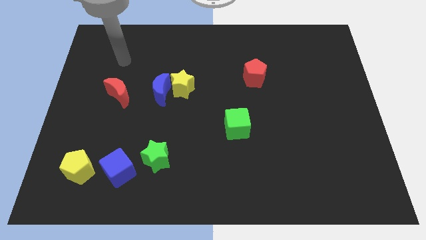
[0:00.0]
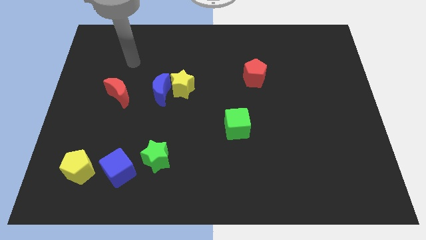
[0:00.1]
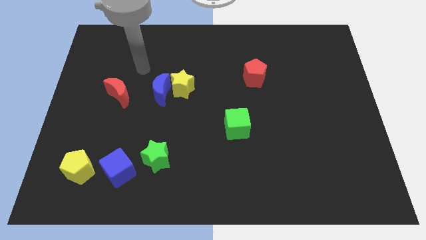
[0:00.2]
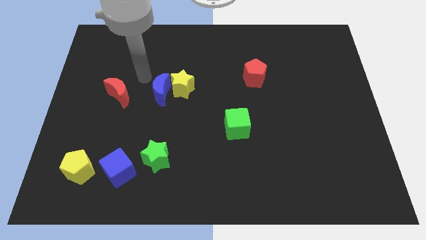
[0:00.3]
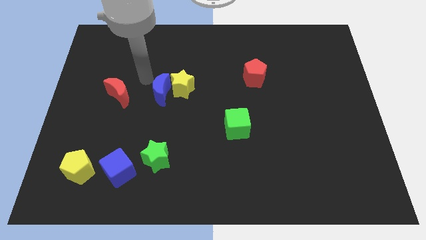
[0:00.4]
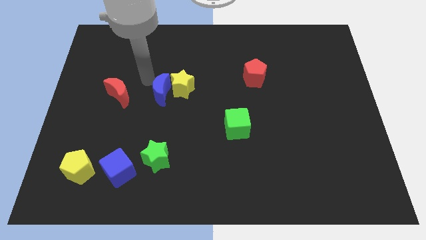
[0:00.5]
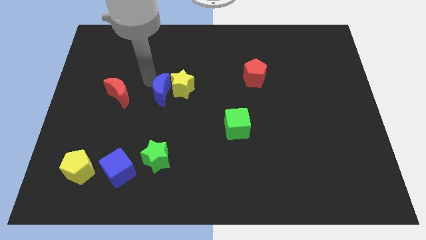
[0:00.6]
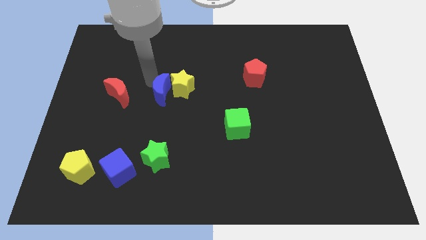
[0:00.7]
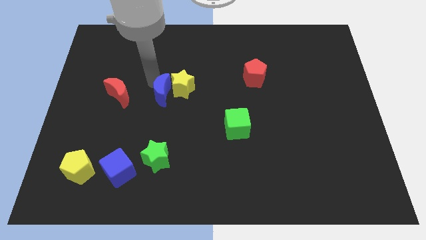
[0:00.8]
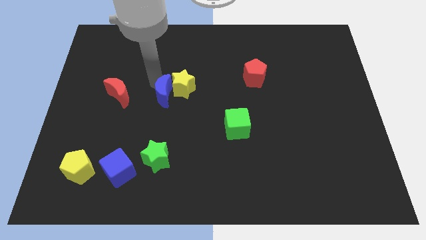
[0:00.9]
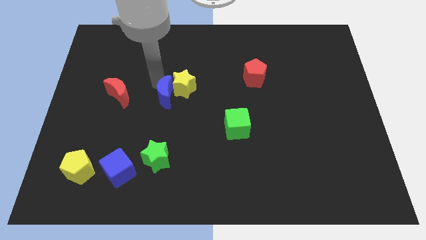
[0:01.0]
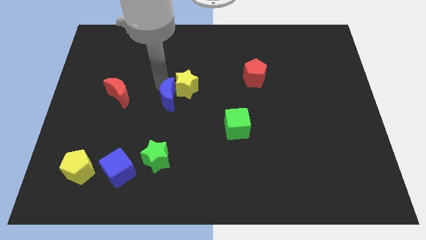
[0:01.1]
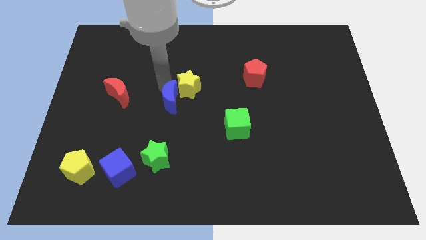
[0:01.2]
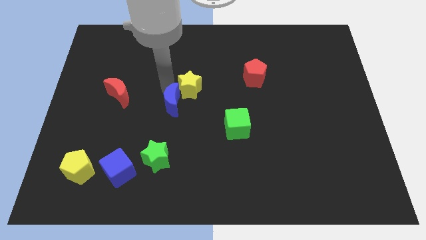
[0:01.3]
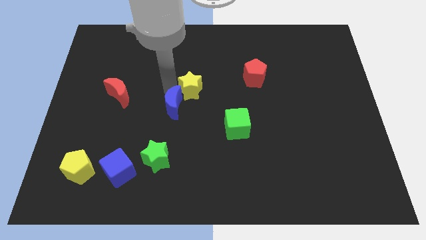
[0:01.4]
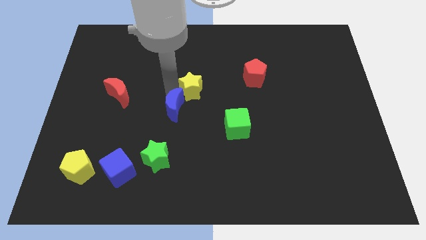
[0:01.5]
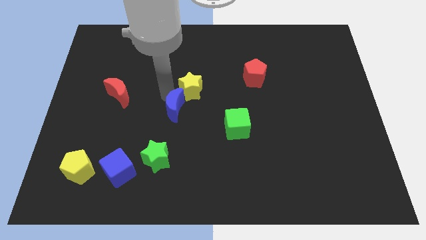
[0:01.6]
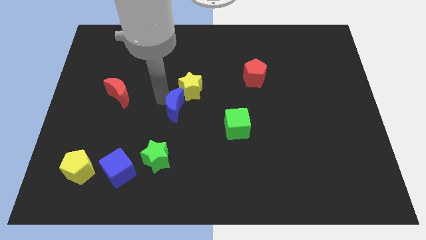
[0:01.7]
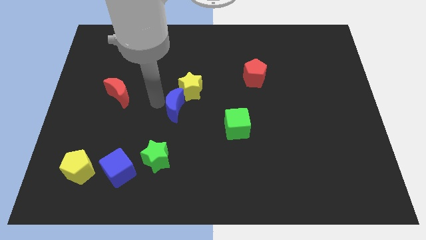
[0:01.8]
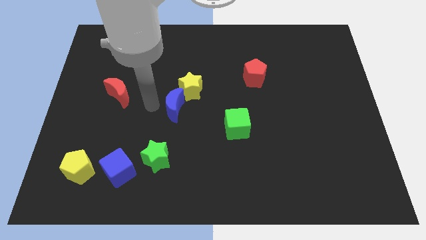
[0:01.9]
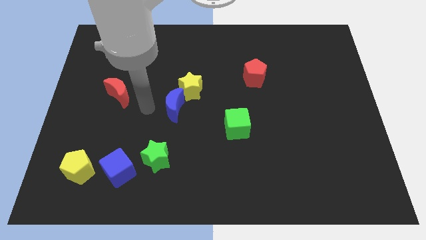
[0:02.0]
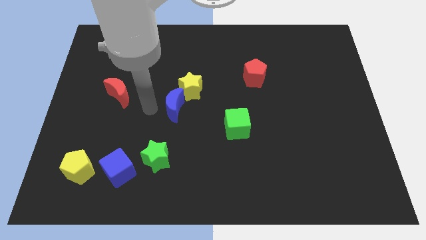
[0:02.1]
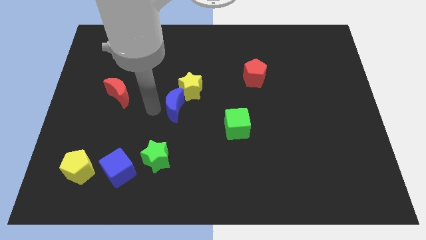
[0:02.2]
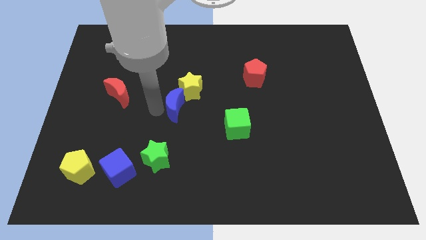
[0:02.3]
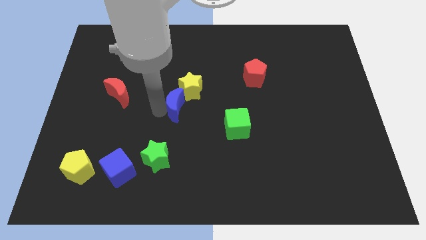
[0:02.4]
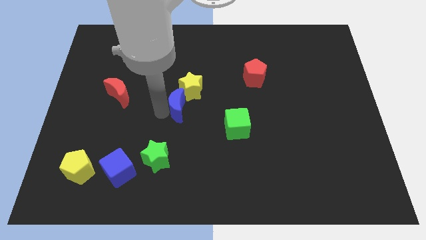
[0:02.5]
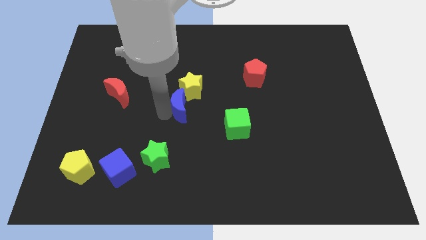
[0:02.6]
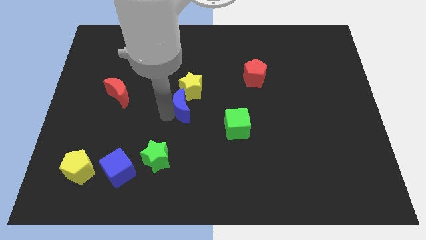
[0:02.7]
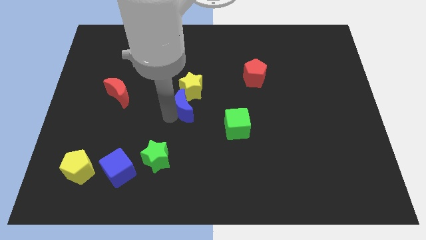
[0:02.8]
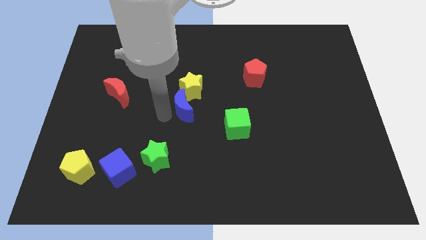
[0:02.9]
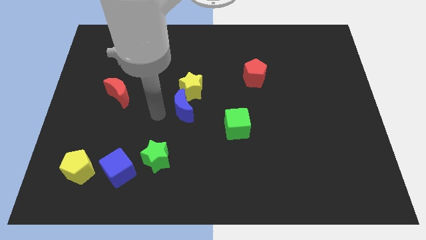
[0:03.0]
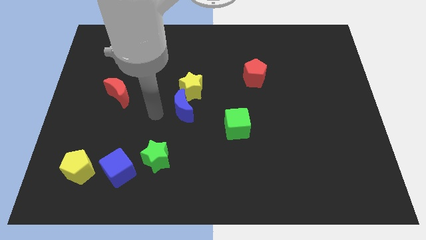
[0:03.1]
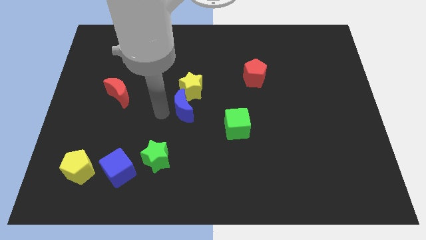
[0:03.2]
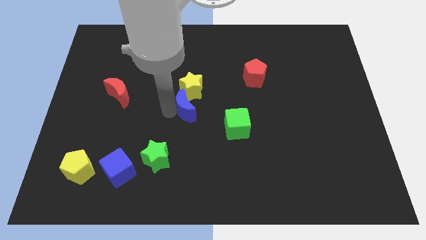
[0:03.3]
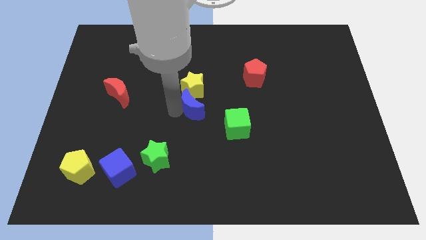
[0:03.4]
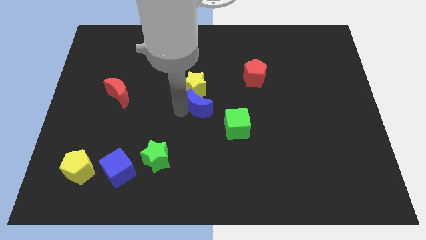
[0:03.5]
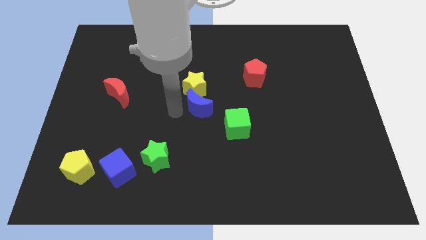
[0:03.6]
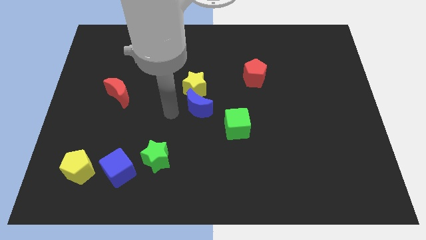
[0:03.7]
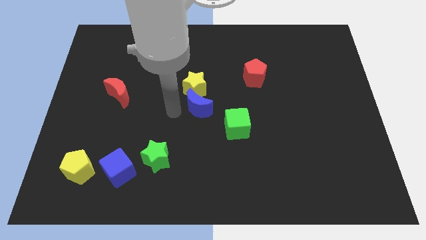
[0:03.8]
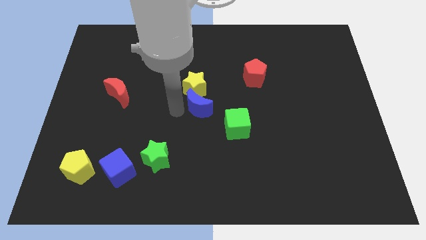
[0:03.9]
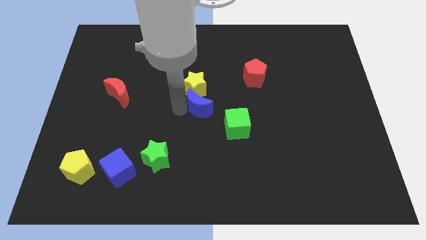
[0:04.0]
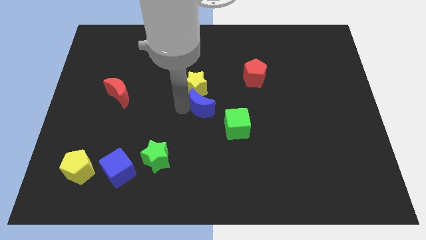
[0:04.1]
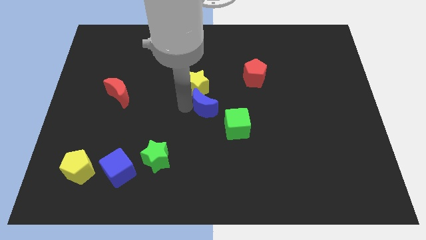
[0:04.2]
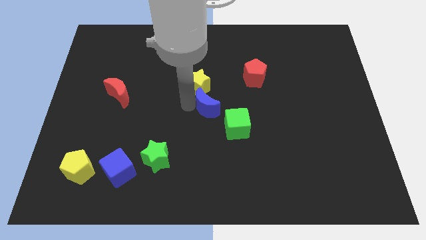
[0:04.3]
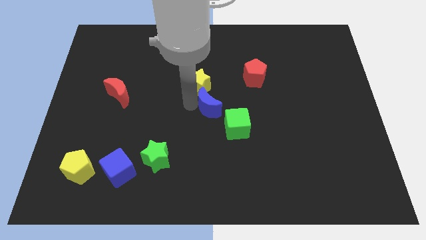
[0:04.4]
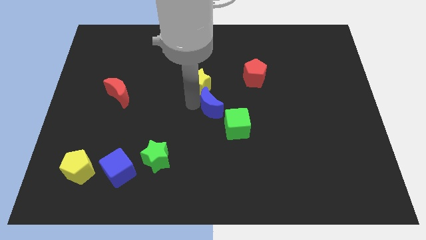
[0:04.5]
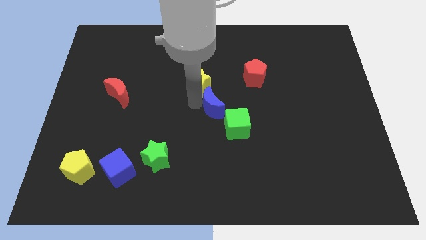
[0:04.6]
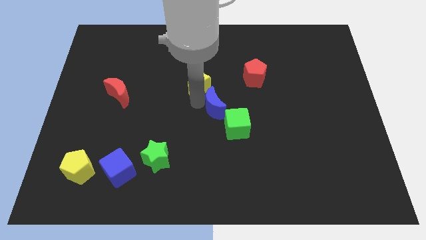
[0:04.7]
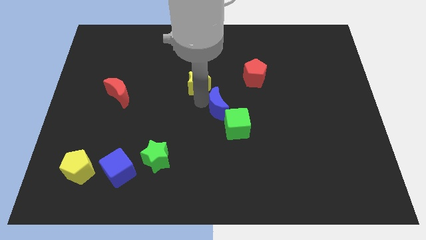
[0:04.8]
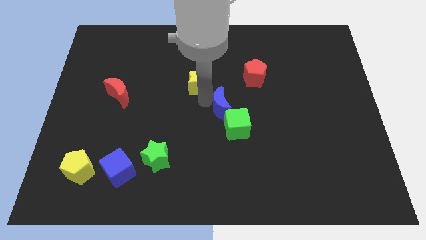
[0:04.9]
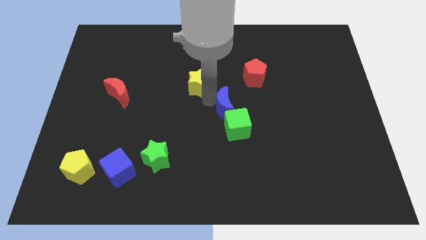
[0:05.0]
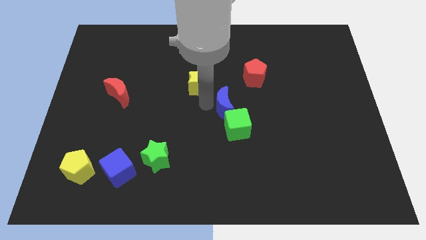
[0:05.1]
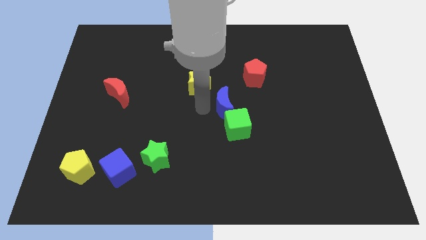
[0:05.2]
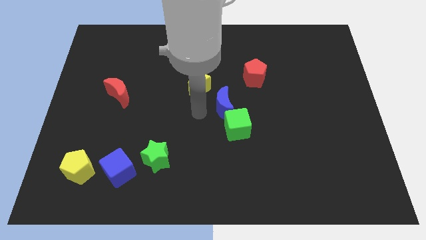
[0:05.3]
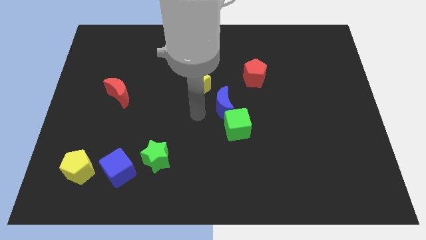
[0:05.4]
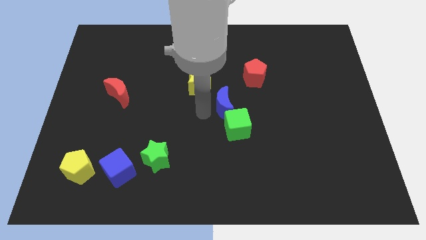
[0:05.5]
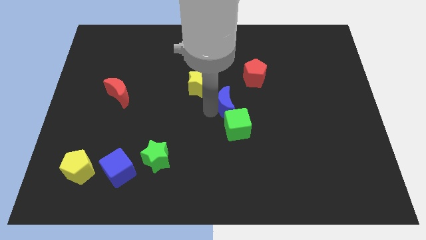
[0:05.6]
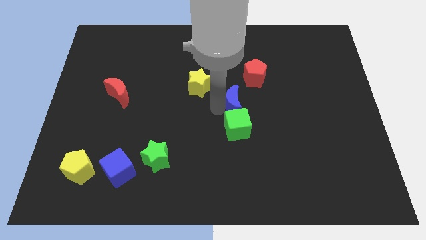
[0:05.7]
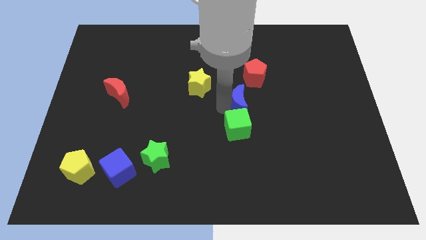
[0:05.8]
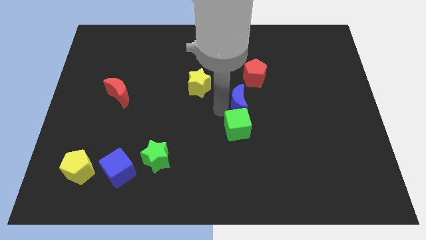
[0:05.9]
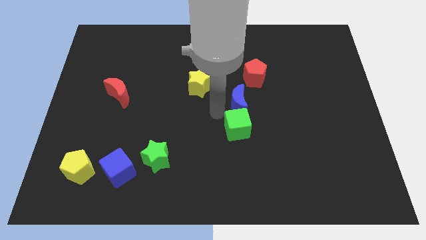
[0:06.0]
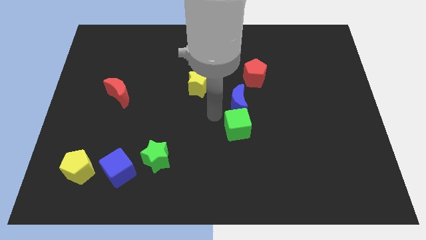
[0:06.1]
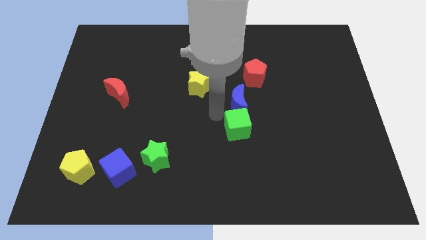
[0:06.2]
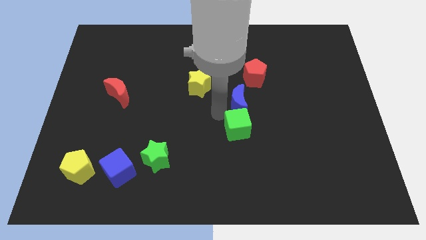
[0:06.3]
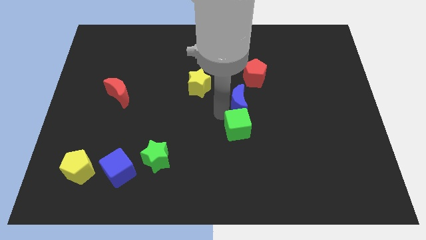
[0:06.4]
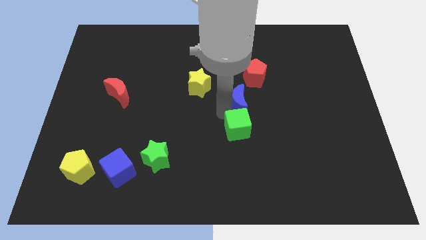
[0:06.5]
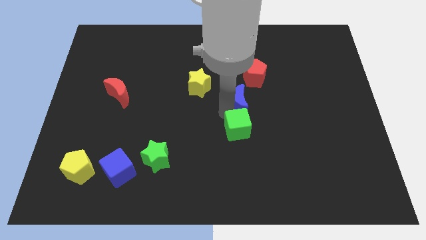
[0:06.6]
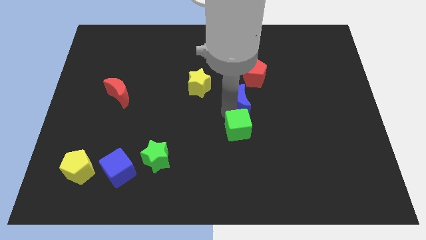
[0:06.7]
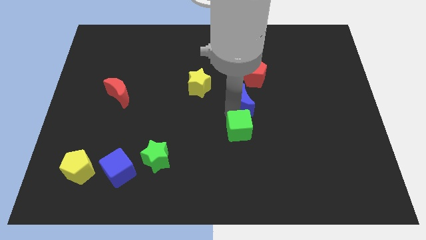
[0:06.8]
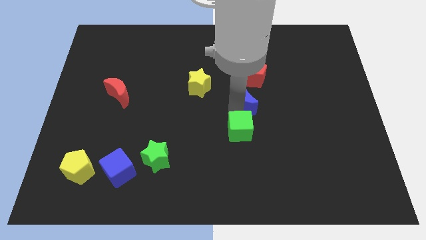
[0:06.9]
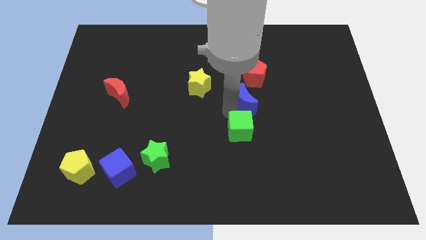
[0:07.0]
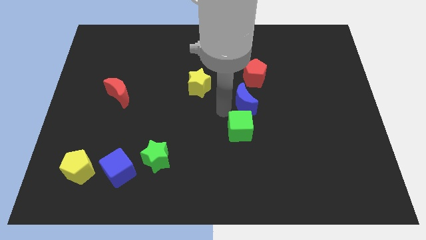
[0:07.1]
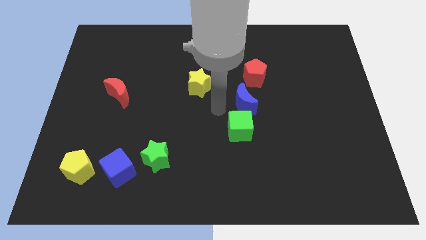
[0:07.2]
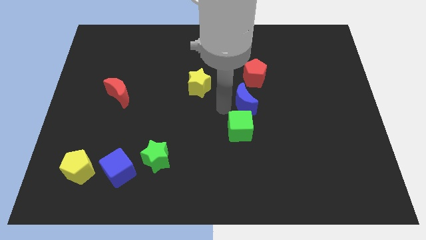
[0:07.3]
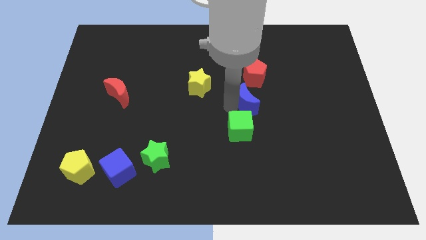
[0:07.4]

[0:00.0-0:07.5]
move the blue moon to the right

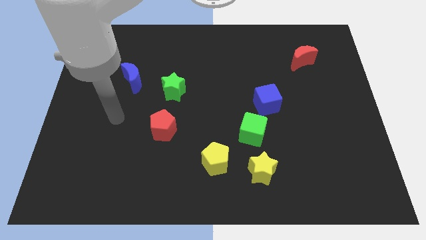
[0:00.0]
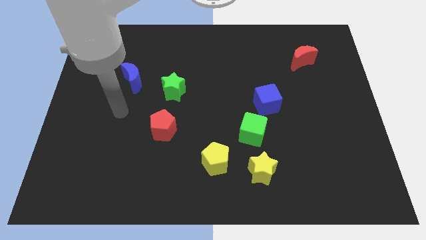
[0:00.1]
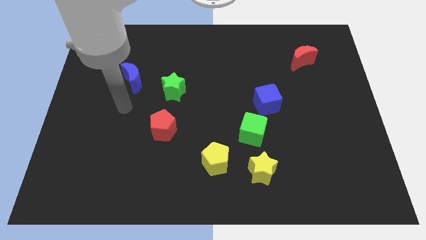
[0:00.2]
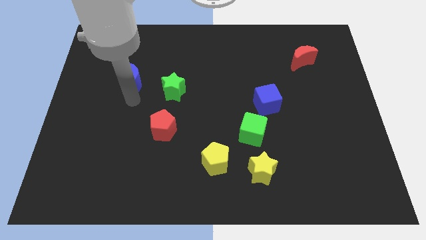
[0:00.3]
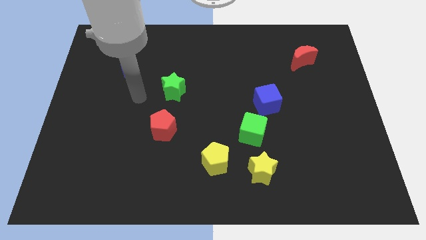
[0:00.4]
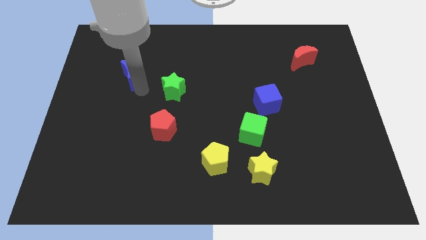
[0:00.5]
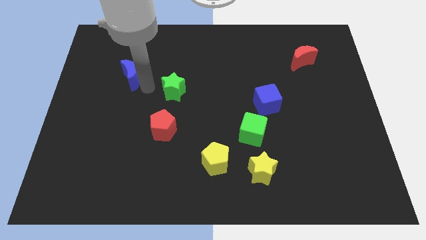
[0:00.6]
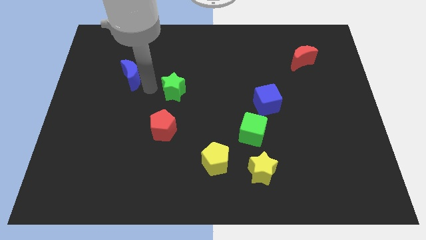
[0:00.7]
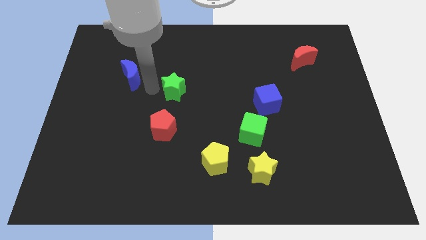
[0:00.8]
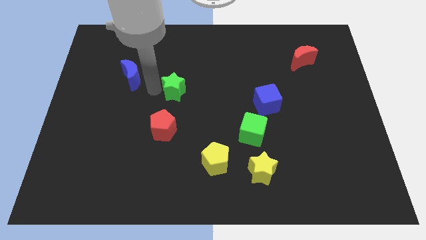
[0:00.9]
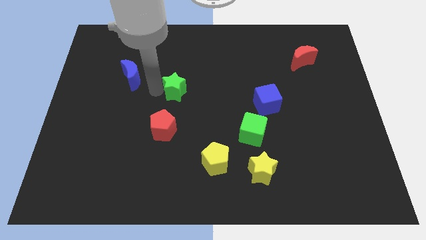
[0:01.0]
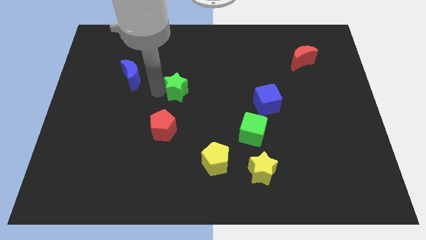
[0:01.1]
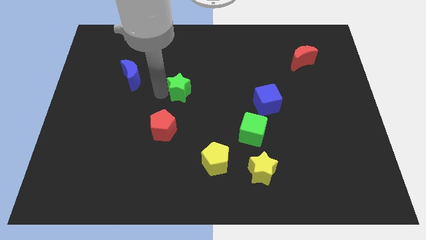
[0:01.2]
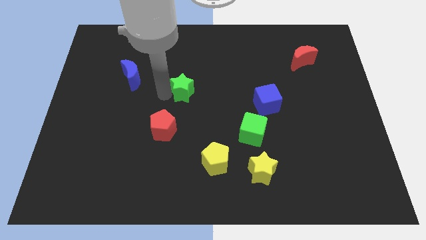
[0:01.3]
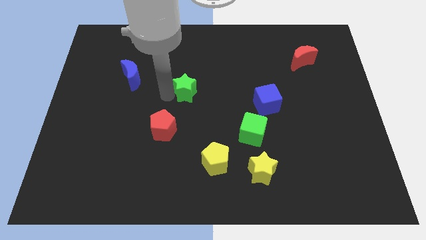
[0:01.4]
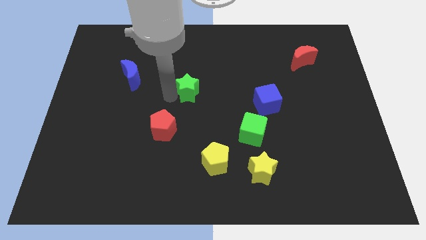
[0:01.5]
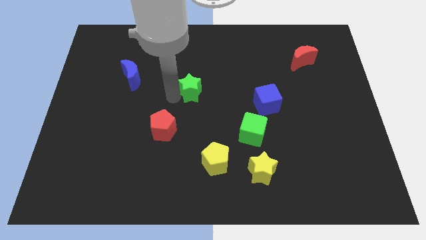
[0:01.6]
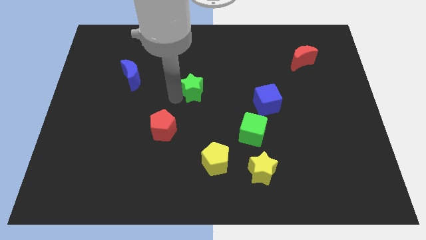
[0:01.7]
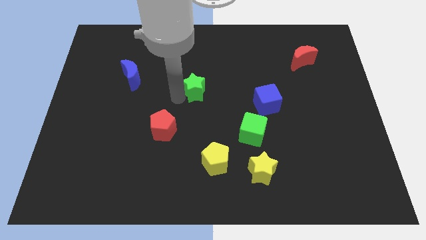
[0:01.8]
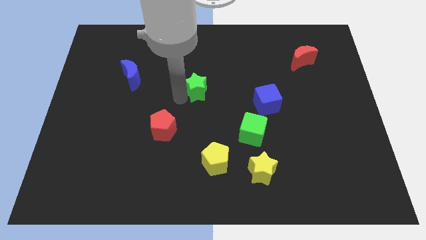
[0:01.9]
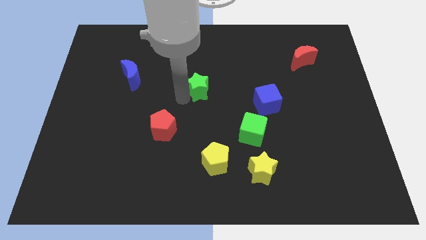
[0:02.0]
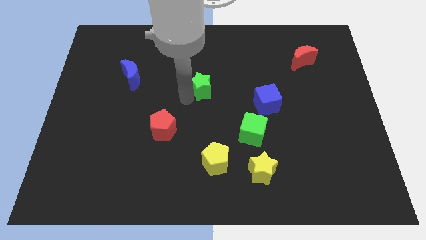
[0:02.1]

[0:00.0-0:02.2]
slightly push the green star to the right
